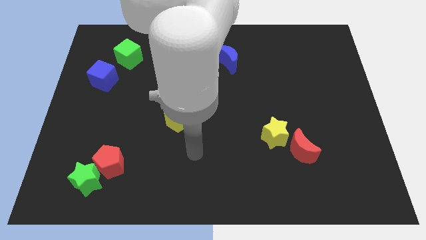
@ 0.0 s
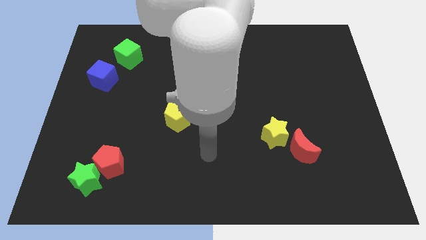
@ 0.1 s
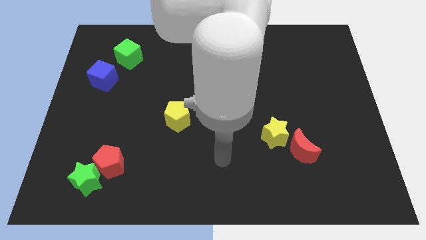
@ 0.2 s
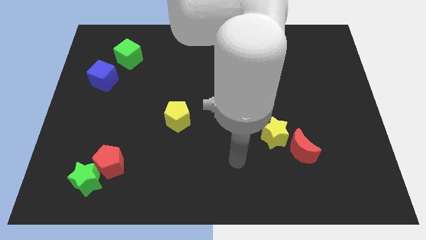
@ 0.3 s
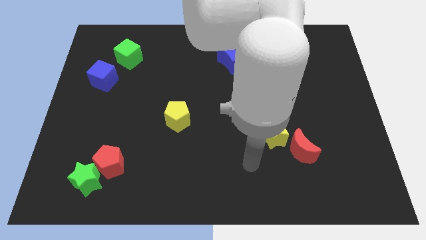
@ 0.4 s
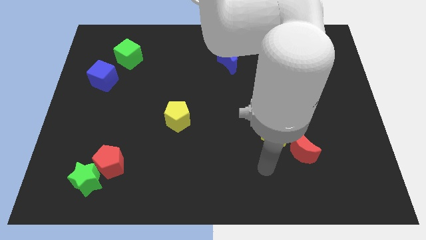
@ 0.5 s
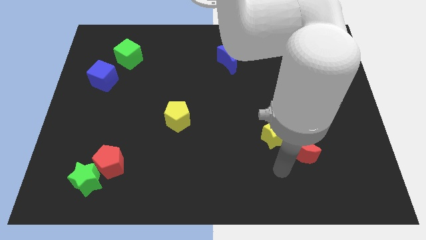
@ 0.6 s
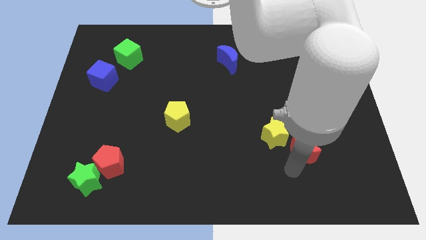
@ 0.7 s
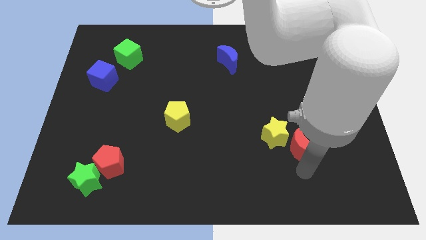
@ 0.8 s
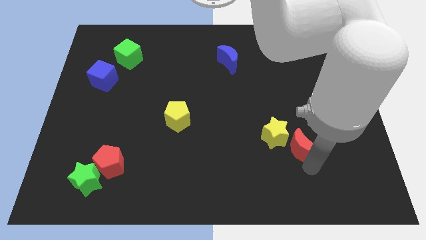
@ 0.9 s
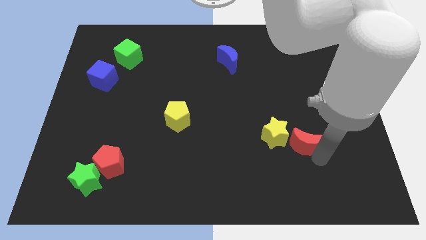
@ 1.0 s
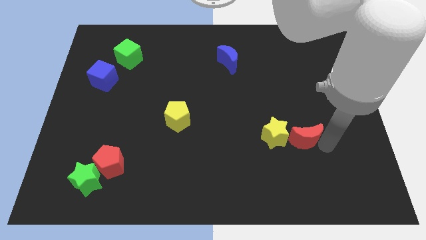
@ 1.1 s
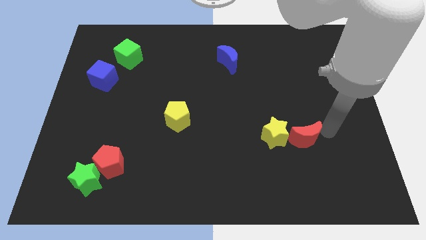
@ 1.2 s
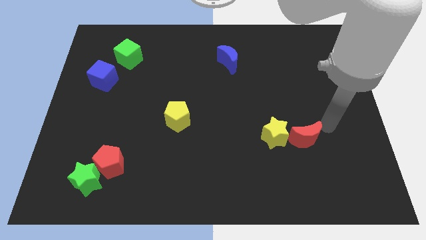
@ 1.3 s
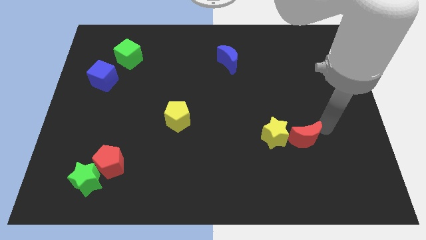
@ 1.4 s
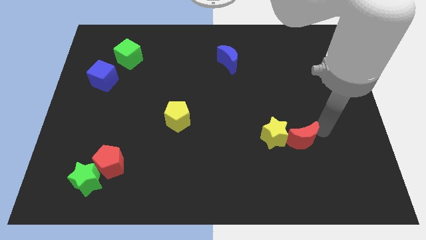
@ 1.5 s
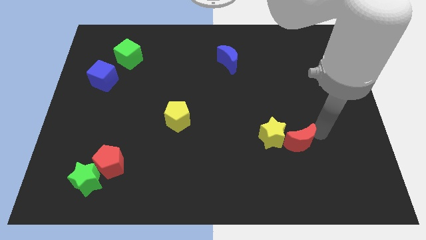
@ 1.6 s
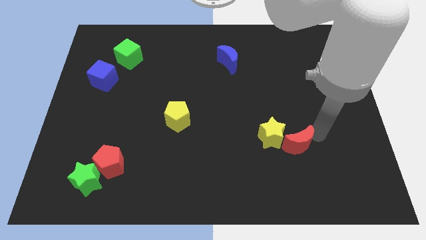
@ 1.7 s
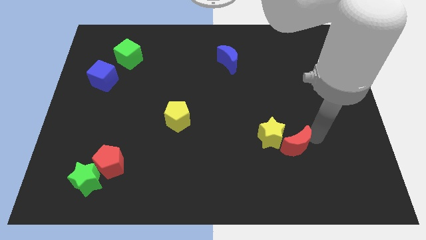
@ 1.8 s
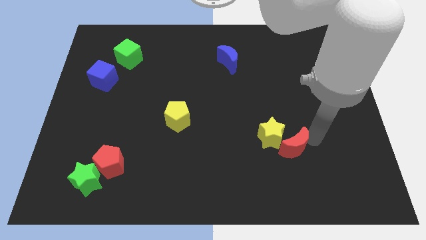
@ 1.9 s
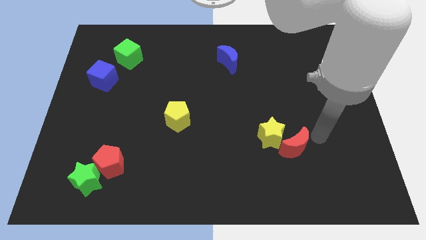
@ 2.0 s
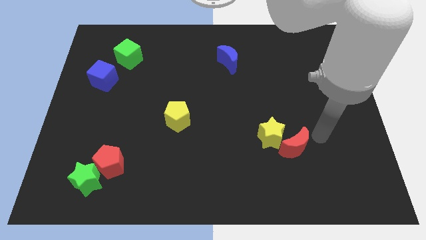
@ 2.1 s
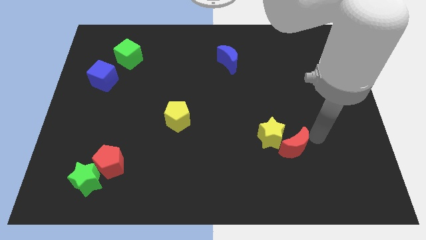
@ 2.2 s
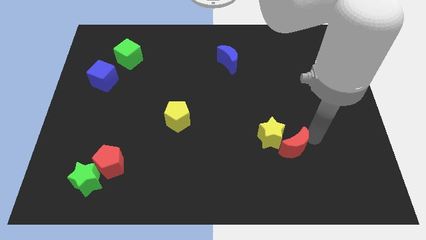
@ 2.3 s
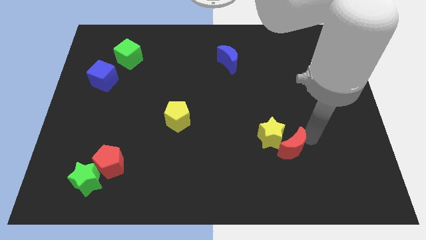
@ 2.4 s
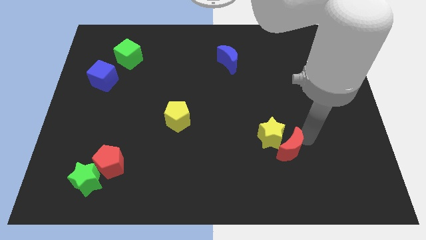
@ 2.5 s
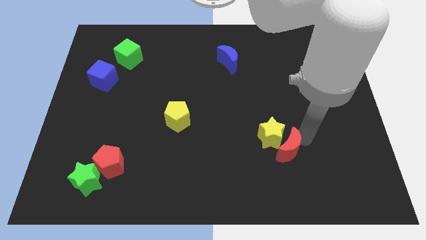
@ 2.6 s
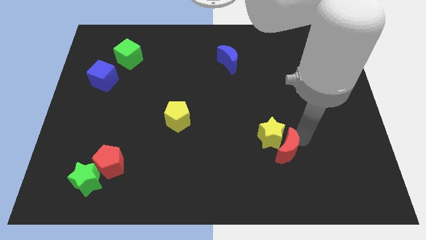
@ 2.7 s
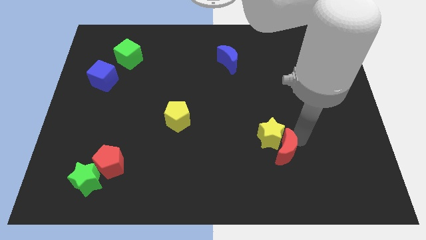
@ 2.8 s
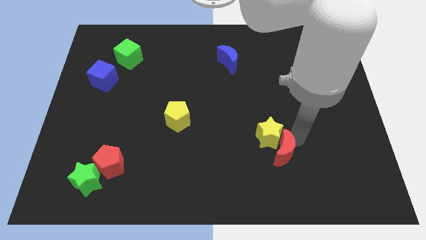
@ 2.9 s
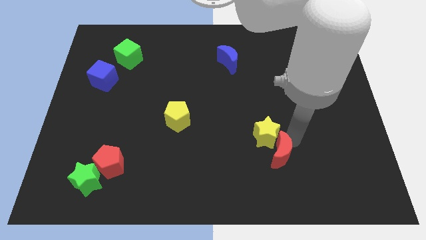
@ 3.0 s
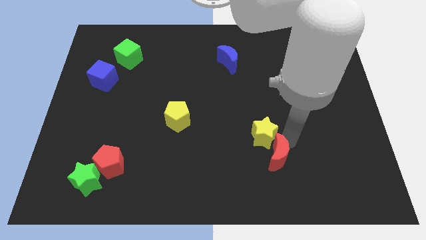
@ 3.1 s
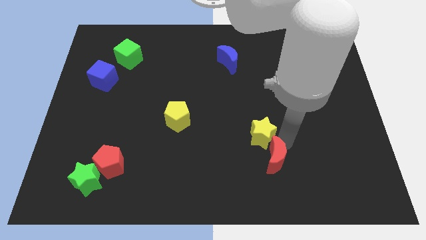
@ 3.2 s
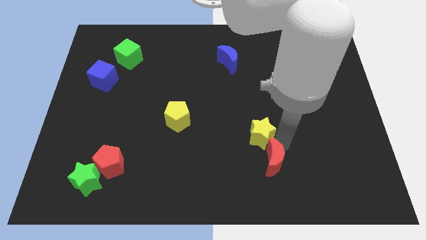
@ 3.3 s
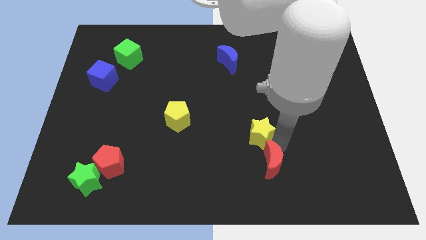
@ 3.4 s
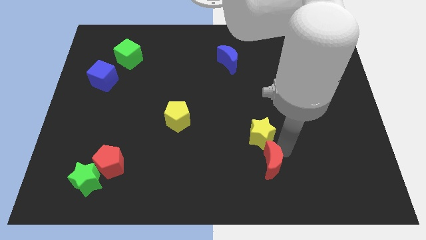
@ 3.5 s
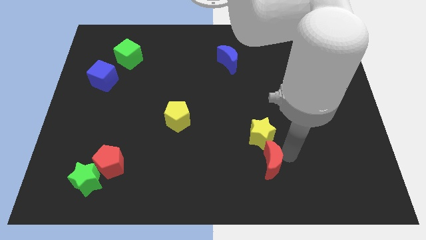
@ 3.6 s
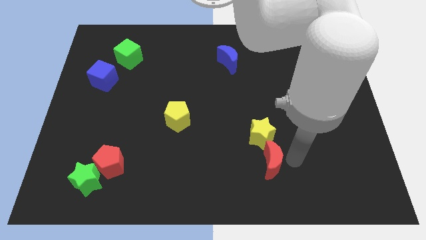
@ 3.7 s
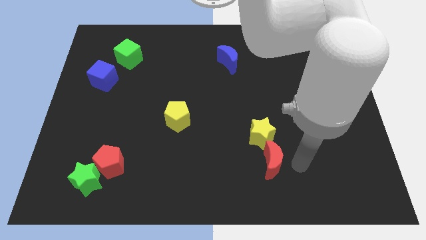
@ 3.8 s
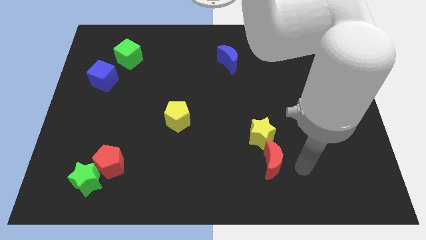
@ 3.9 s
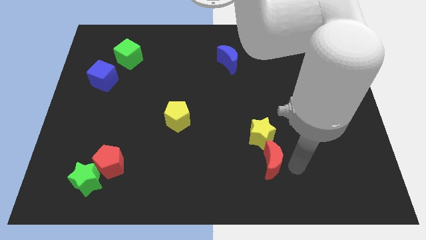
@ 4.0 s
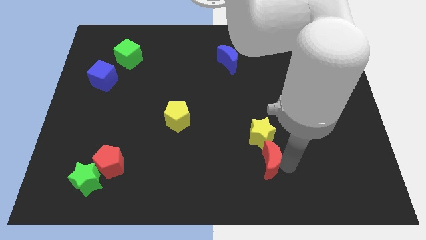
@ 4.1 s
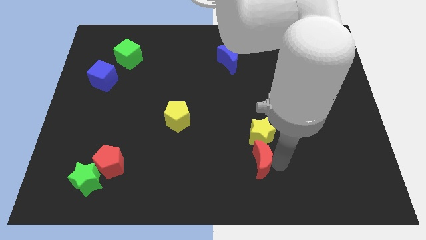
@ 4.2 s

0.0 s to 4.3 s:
move the red moon left a bit

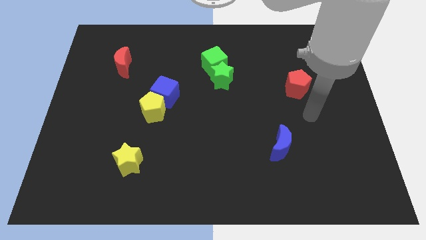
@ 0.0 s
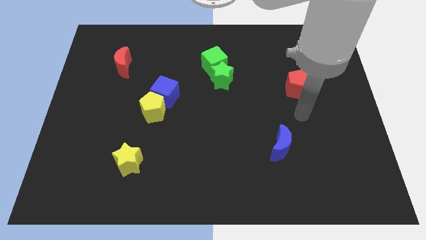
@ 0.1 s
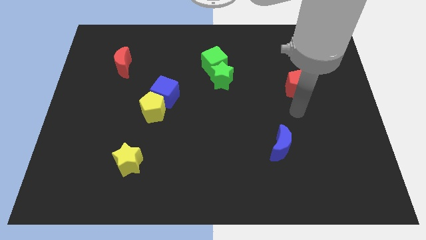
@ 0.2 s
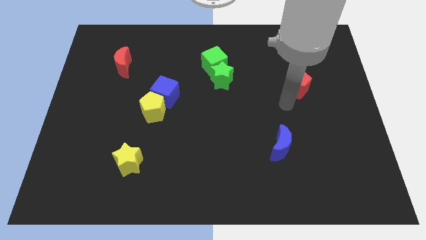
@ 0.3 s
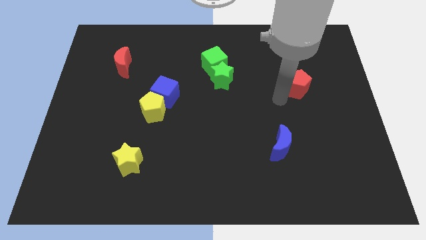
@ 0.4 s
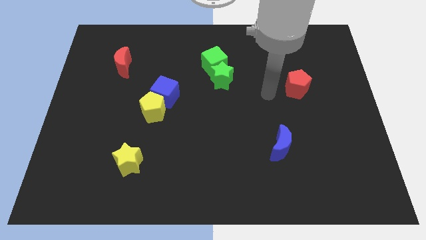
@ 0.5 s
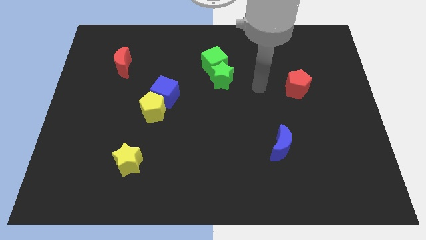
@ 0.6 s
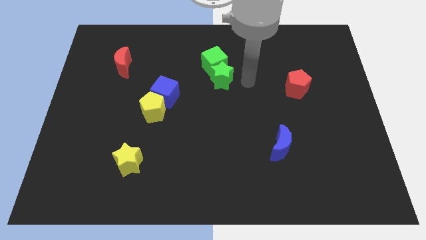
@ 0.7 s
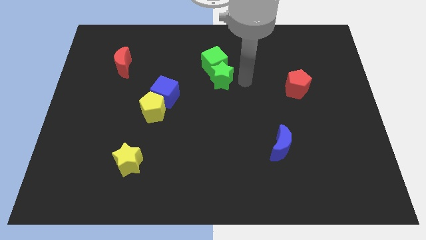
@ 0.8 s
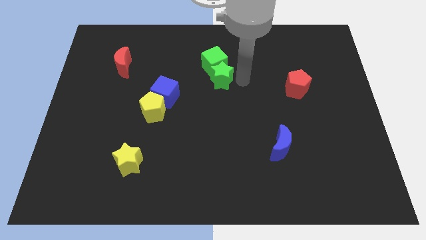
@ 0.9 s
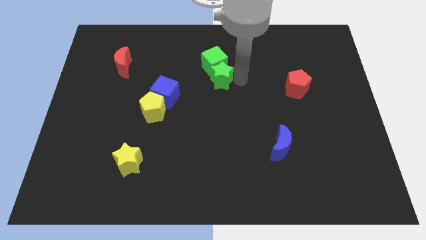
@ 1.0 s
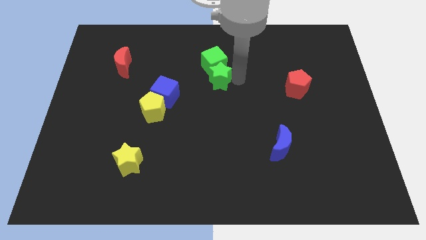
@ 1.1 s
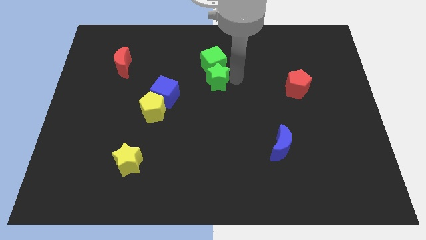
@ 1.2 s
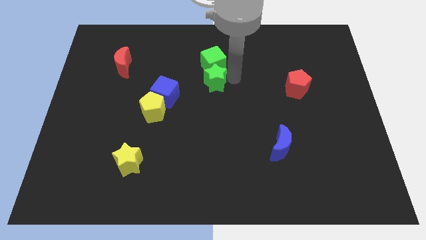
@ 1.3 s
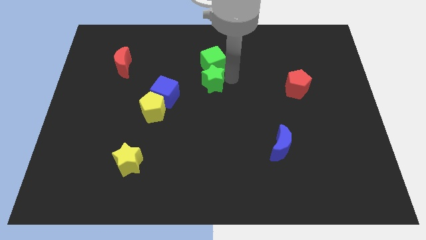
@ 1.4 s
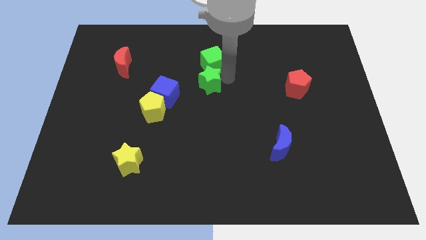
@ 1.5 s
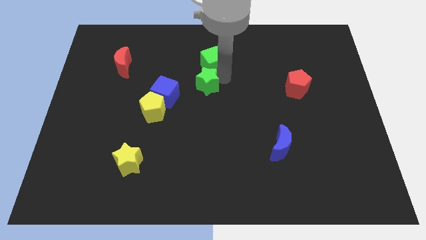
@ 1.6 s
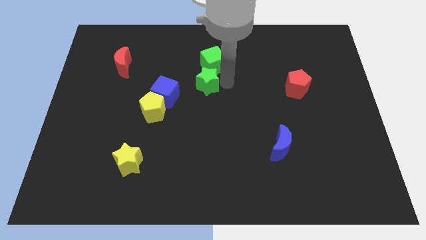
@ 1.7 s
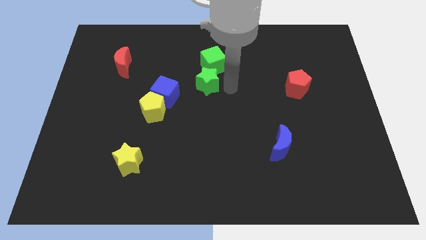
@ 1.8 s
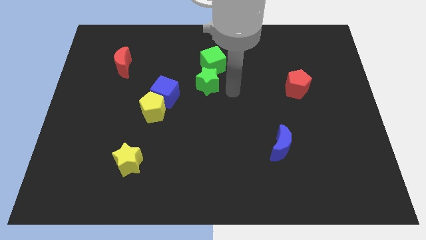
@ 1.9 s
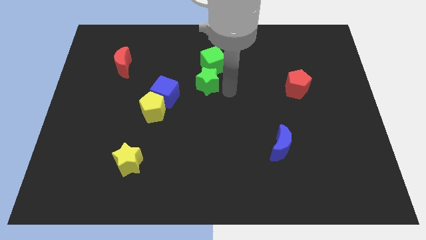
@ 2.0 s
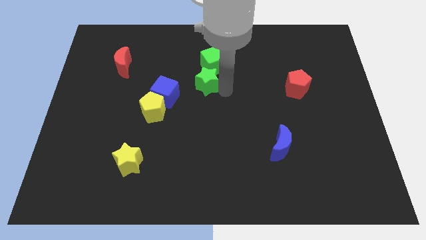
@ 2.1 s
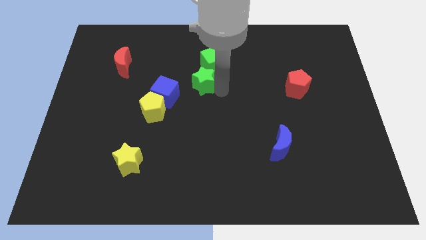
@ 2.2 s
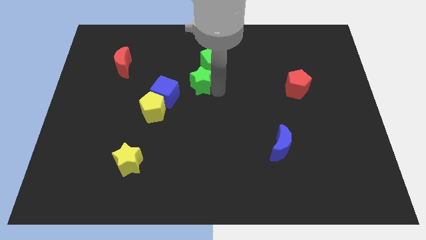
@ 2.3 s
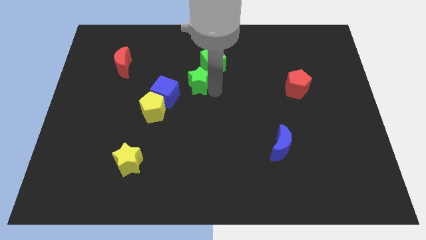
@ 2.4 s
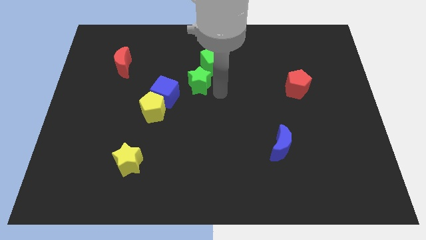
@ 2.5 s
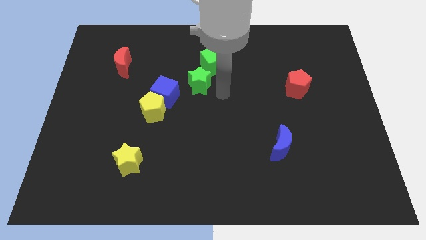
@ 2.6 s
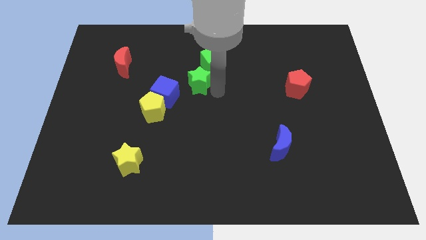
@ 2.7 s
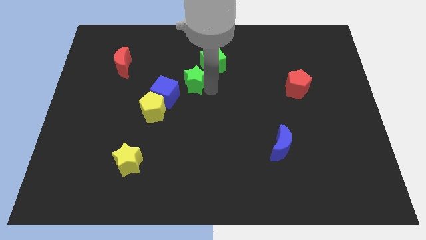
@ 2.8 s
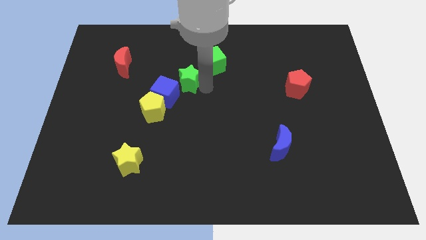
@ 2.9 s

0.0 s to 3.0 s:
push the green star to the left a bit

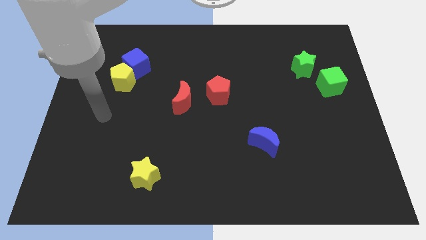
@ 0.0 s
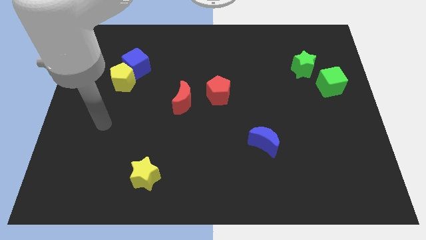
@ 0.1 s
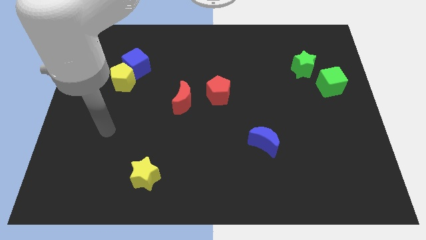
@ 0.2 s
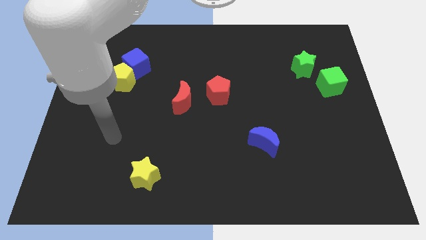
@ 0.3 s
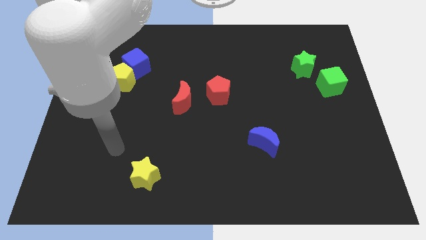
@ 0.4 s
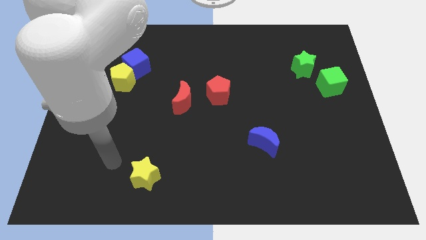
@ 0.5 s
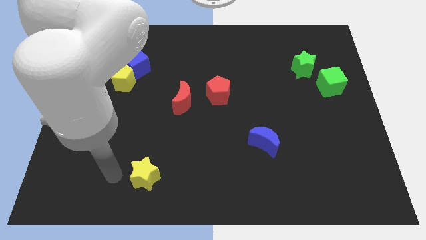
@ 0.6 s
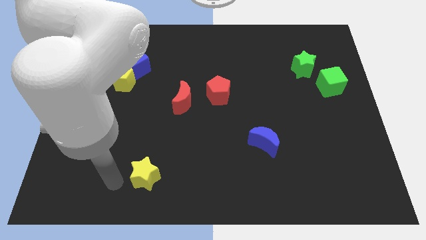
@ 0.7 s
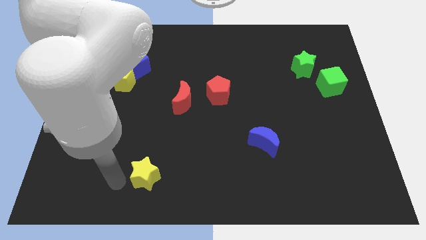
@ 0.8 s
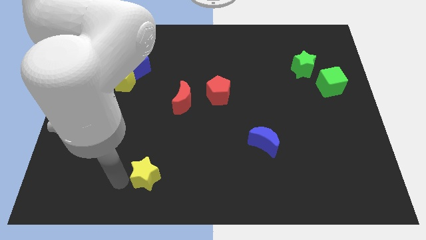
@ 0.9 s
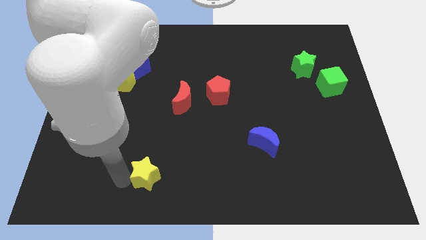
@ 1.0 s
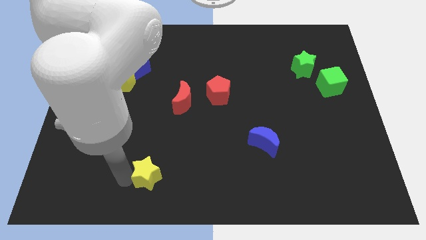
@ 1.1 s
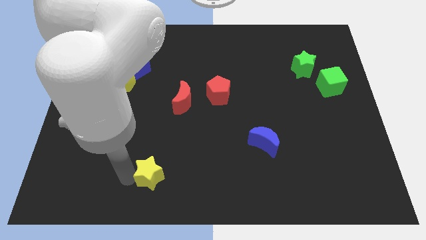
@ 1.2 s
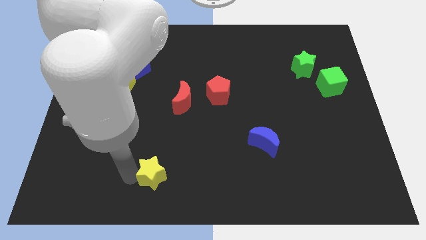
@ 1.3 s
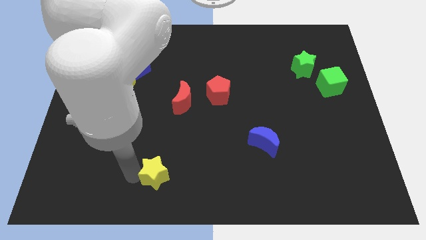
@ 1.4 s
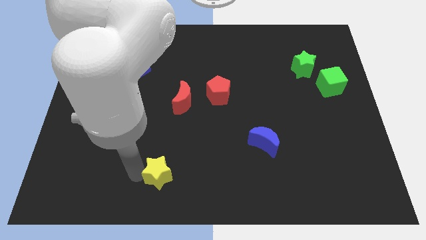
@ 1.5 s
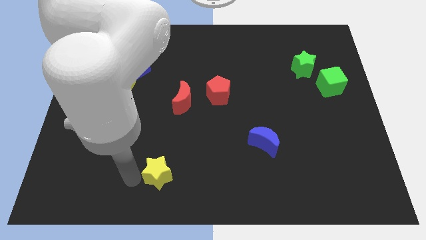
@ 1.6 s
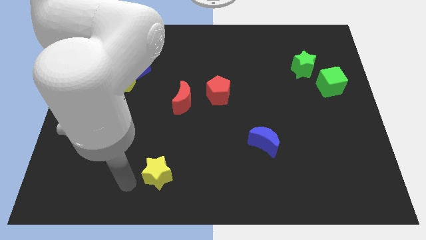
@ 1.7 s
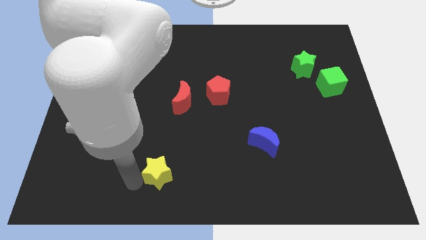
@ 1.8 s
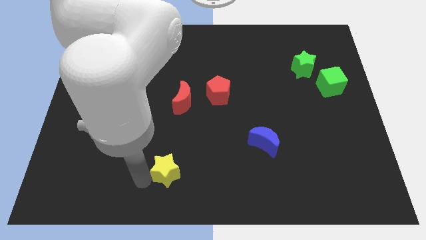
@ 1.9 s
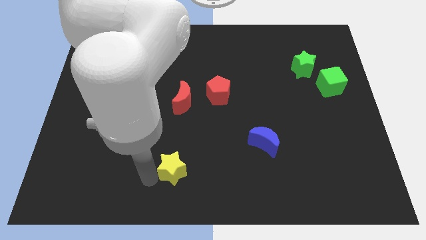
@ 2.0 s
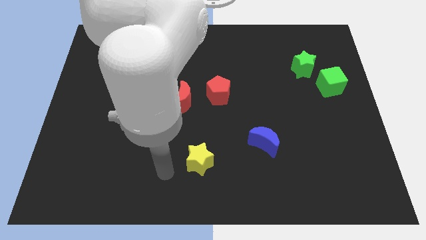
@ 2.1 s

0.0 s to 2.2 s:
slightly push the yellow star right
